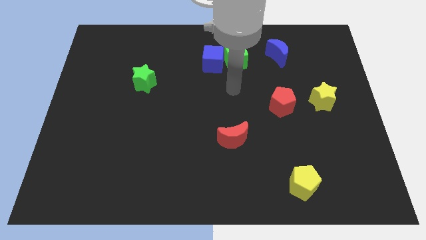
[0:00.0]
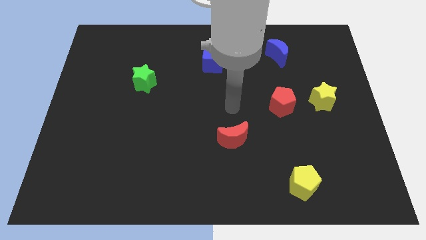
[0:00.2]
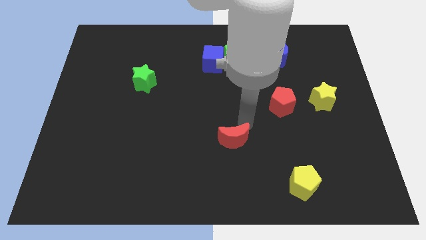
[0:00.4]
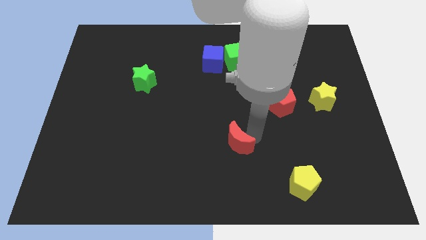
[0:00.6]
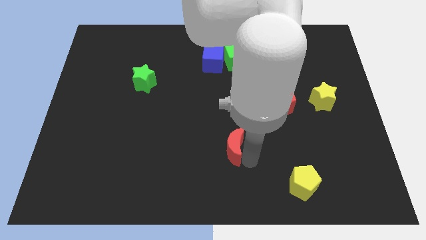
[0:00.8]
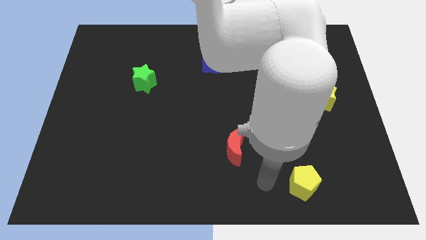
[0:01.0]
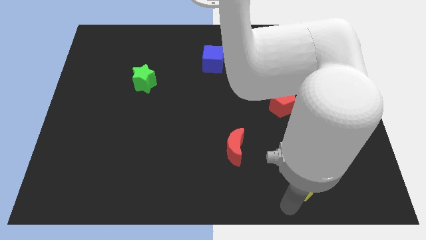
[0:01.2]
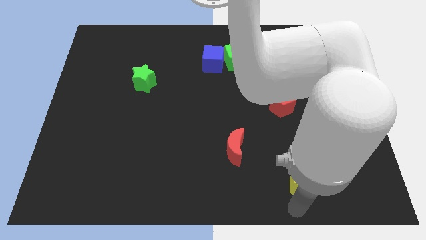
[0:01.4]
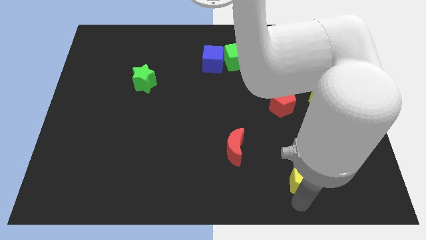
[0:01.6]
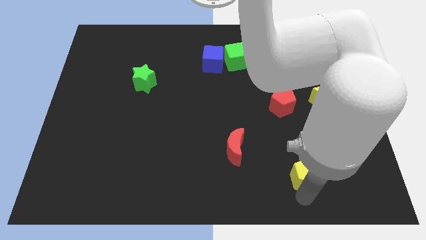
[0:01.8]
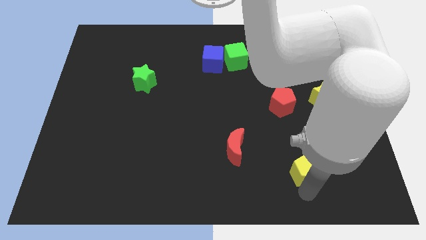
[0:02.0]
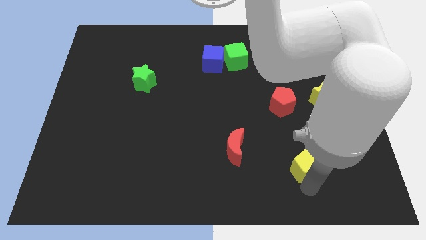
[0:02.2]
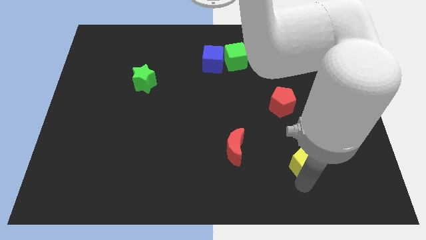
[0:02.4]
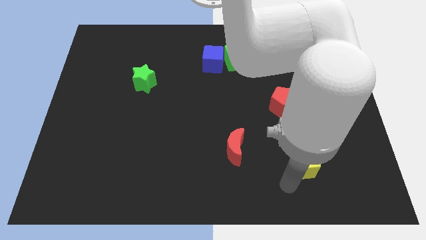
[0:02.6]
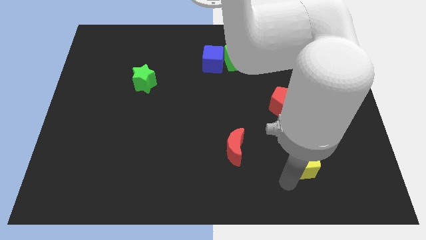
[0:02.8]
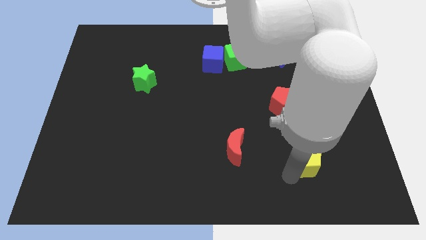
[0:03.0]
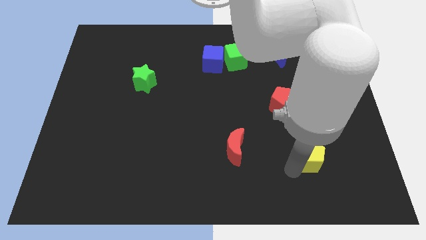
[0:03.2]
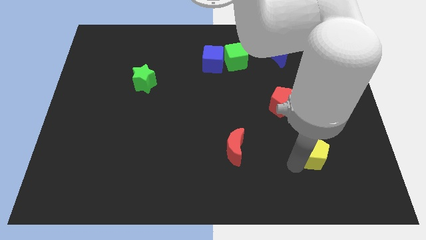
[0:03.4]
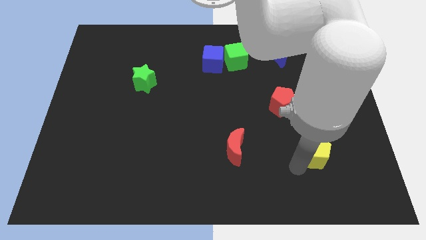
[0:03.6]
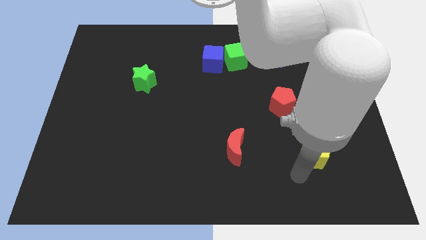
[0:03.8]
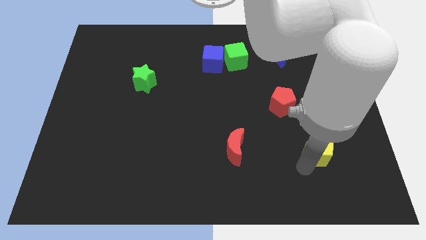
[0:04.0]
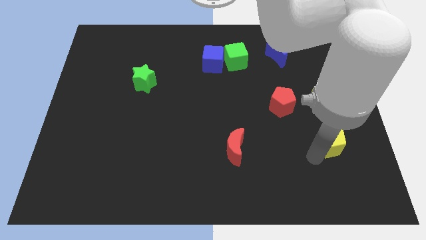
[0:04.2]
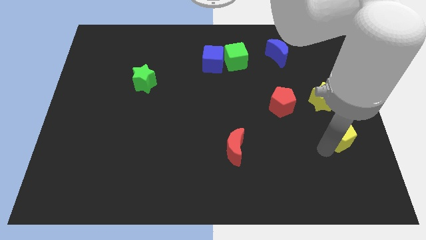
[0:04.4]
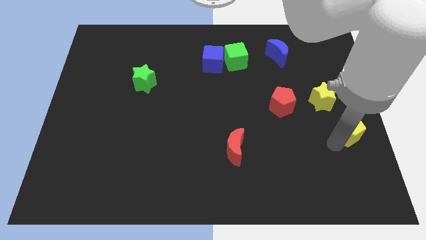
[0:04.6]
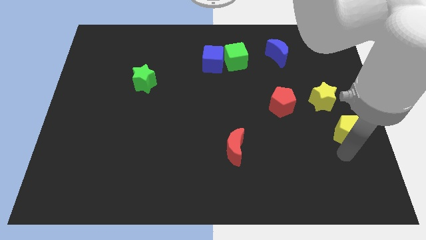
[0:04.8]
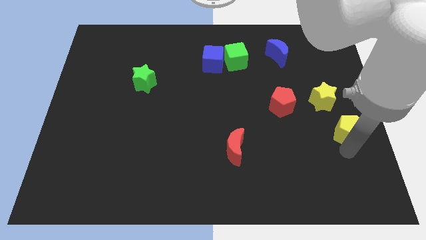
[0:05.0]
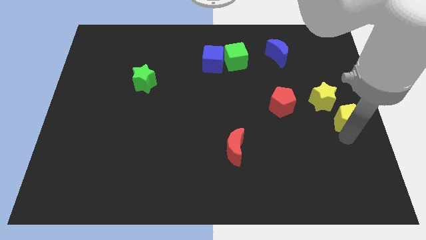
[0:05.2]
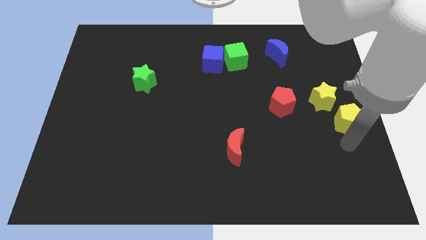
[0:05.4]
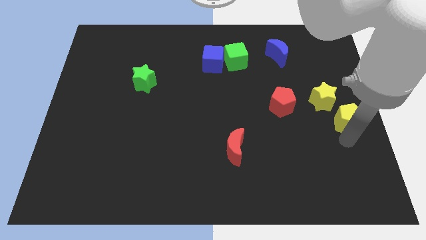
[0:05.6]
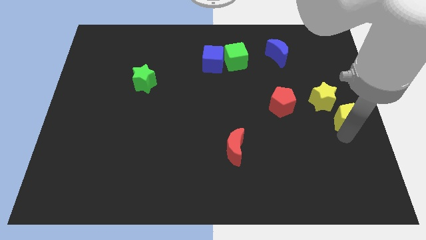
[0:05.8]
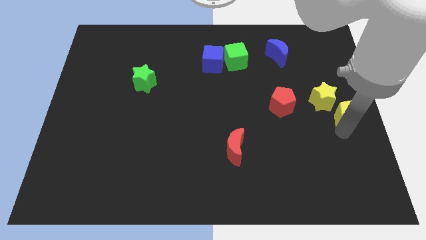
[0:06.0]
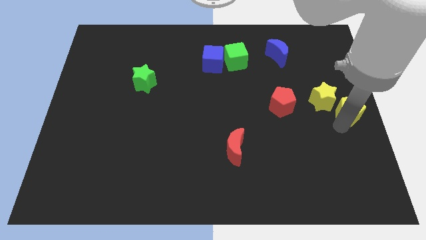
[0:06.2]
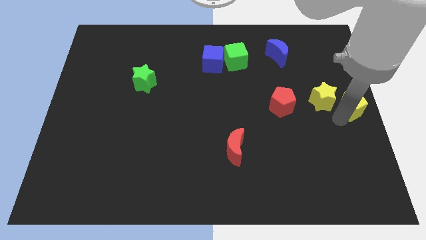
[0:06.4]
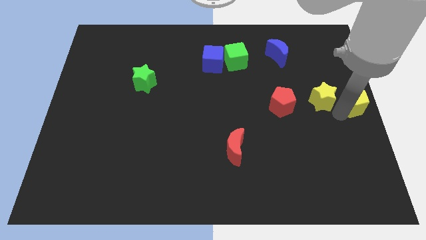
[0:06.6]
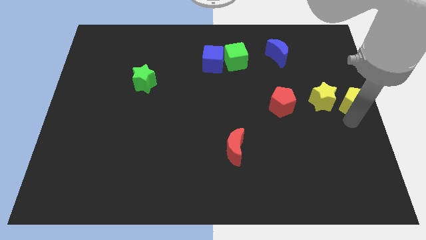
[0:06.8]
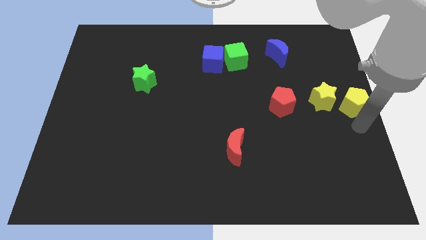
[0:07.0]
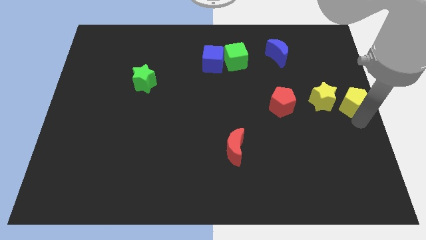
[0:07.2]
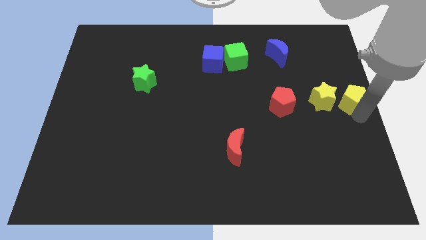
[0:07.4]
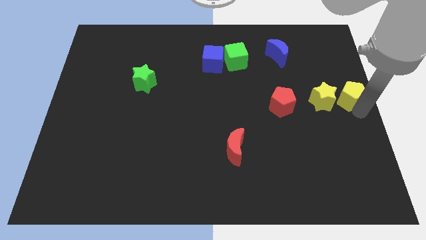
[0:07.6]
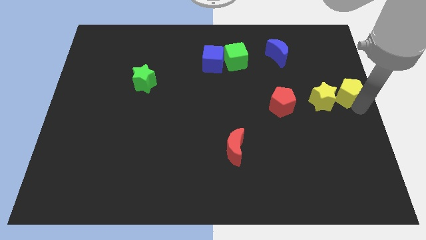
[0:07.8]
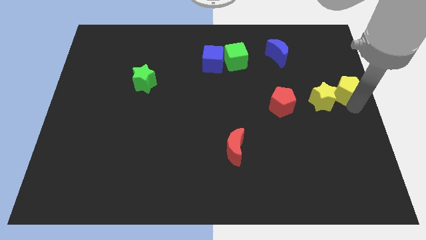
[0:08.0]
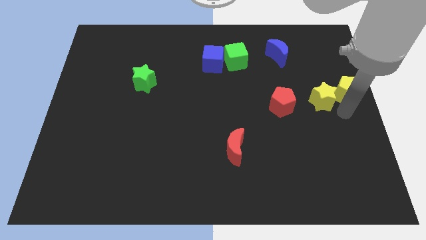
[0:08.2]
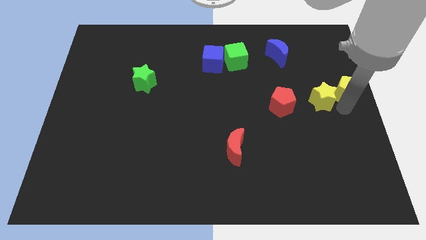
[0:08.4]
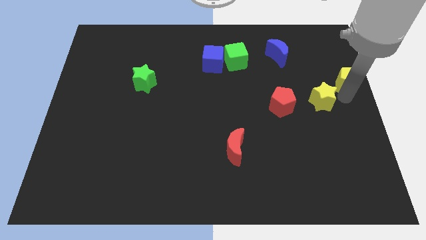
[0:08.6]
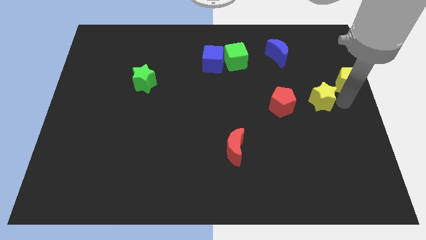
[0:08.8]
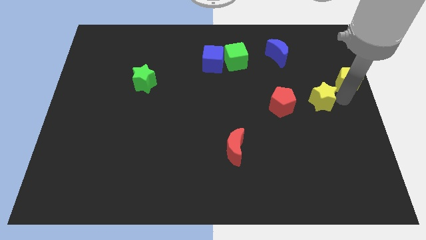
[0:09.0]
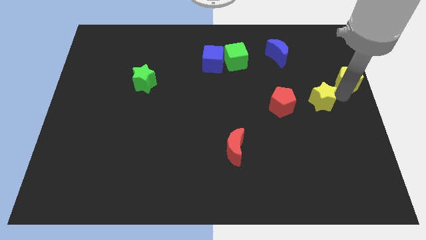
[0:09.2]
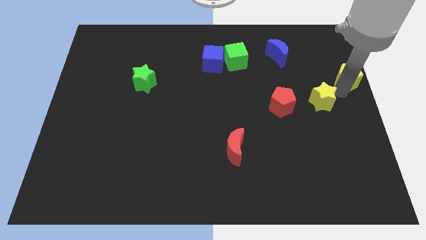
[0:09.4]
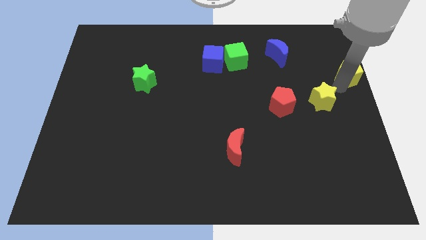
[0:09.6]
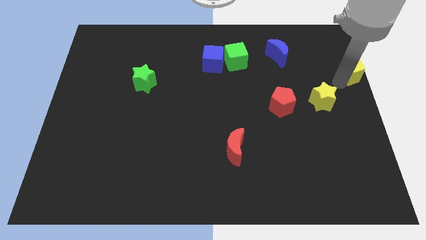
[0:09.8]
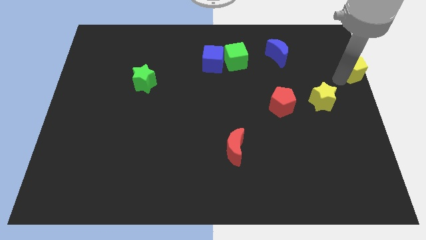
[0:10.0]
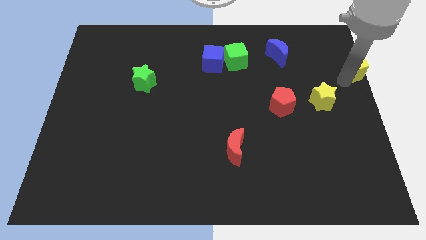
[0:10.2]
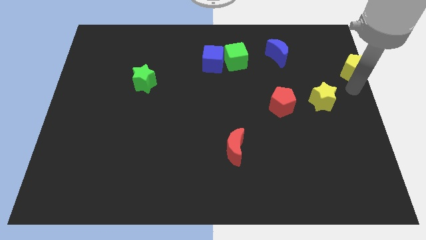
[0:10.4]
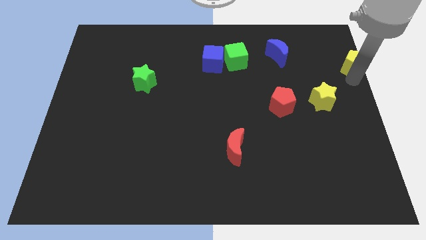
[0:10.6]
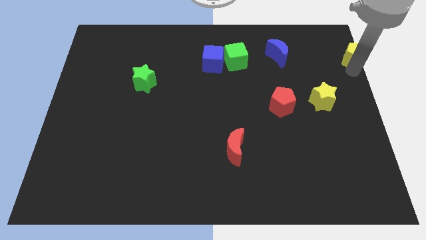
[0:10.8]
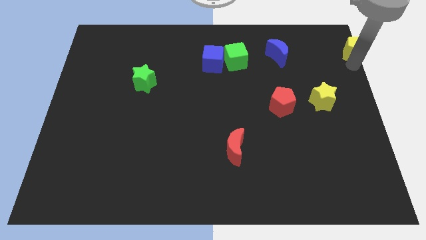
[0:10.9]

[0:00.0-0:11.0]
push the yellow pentagon to the upper right corner

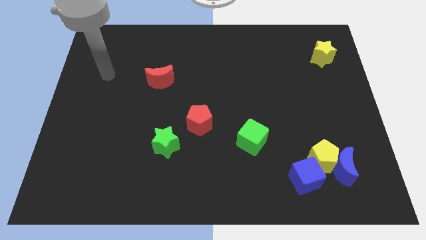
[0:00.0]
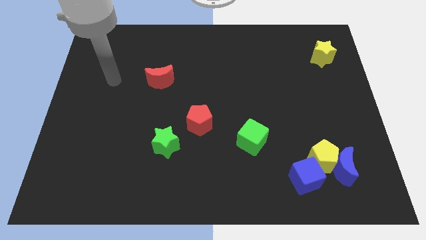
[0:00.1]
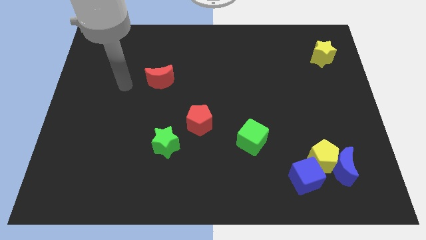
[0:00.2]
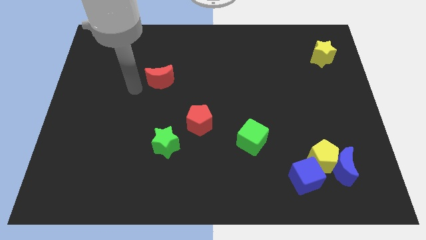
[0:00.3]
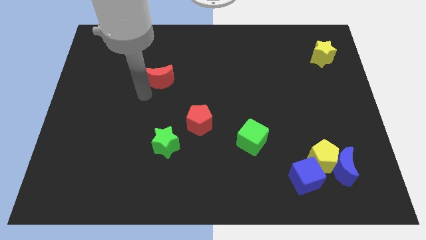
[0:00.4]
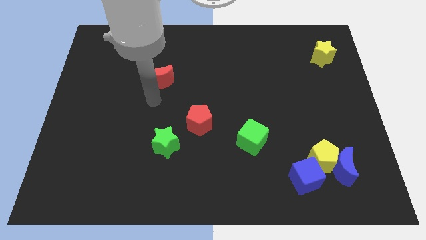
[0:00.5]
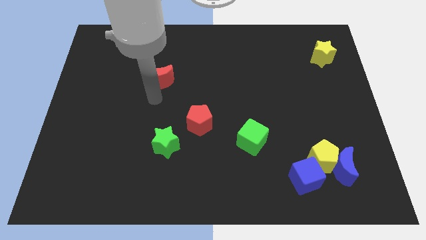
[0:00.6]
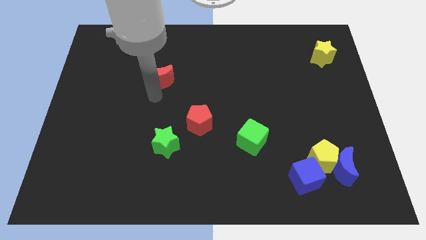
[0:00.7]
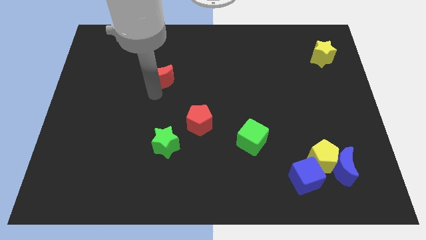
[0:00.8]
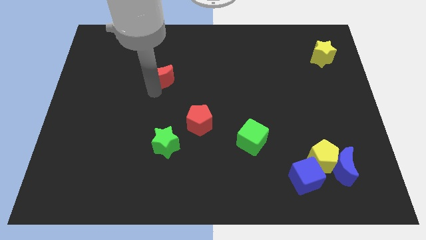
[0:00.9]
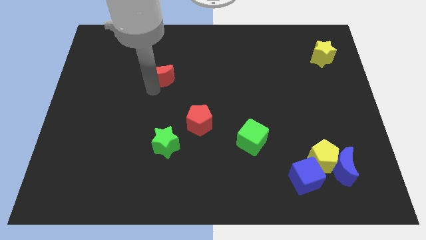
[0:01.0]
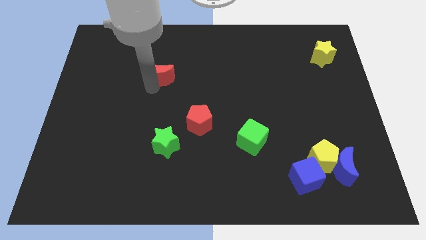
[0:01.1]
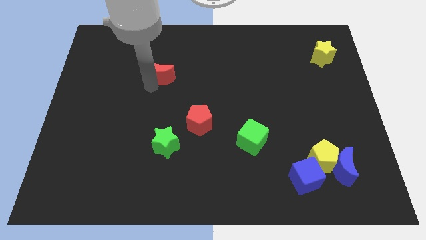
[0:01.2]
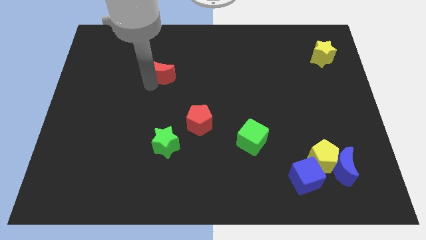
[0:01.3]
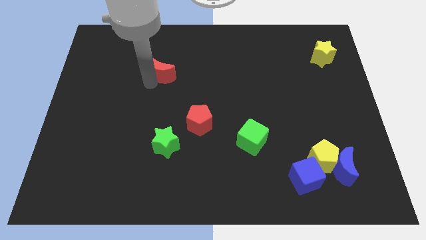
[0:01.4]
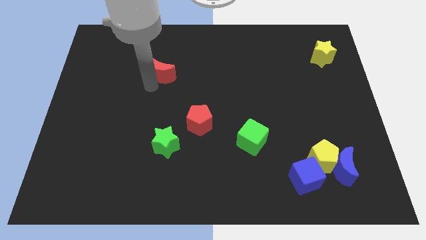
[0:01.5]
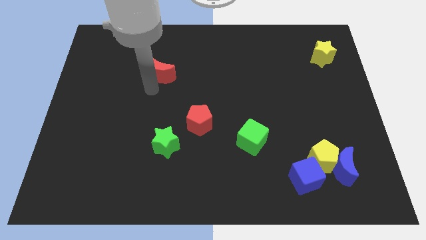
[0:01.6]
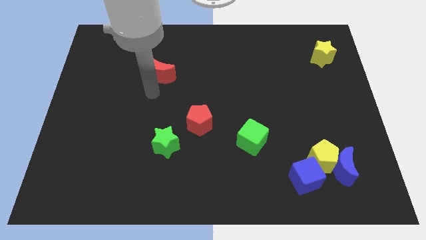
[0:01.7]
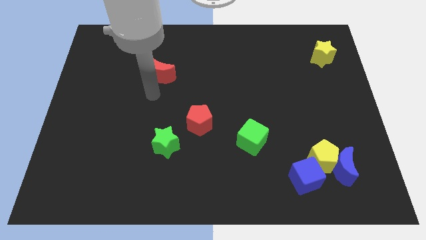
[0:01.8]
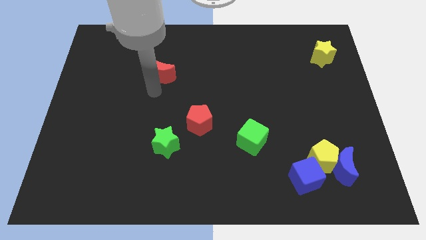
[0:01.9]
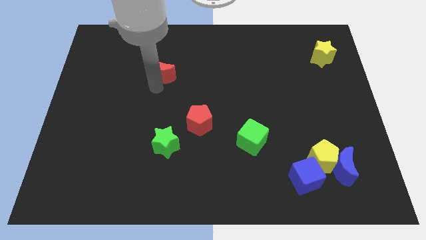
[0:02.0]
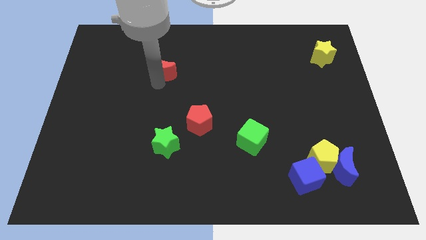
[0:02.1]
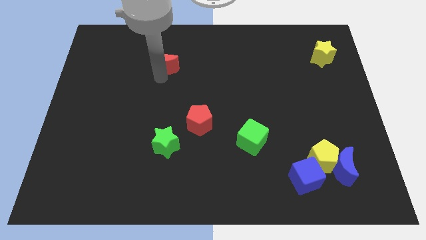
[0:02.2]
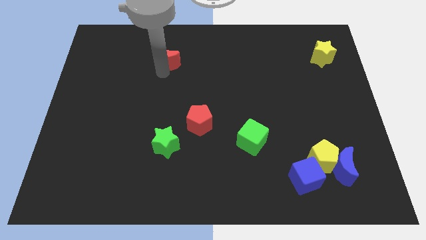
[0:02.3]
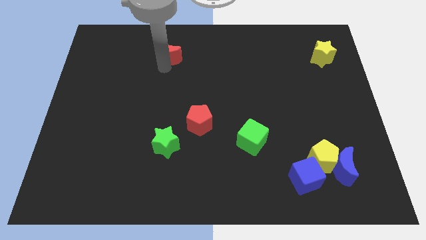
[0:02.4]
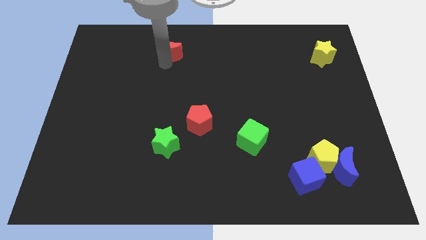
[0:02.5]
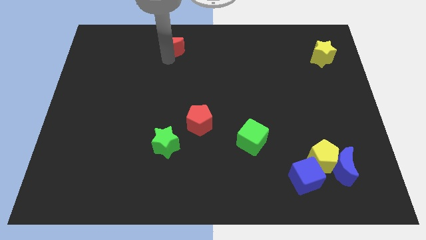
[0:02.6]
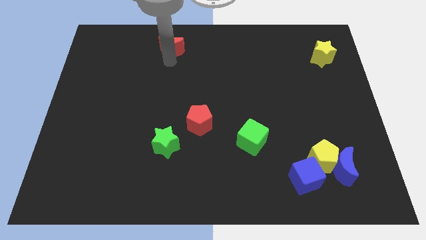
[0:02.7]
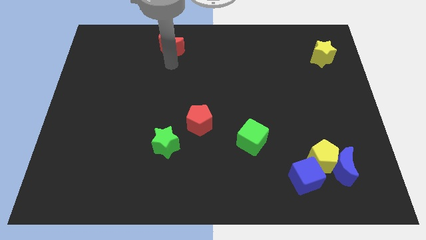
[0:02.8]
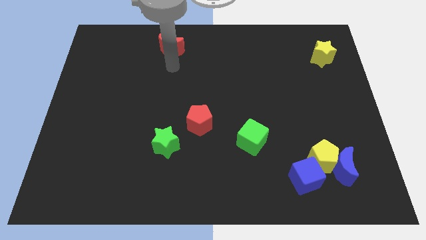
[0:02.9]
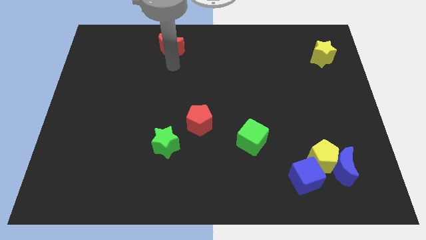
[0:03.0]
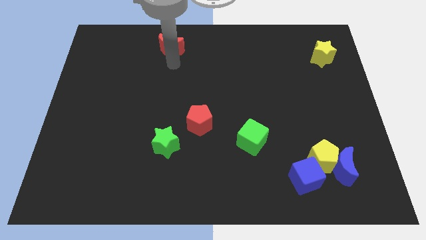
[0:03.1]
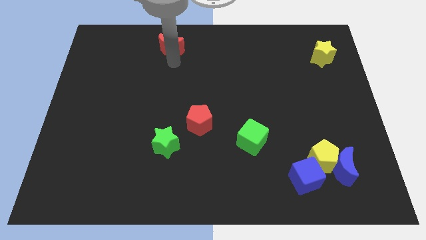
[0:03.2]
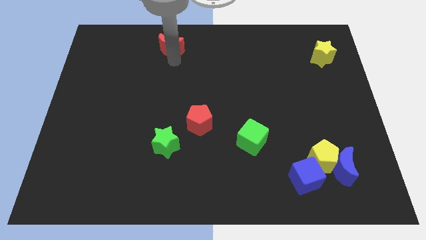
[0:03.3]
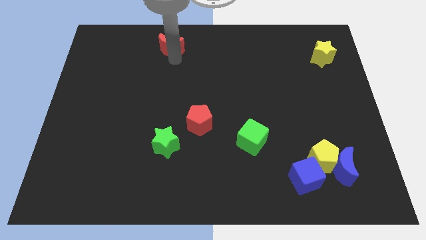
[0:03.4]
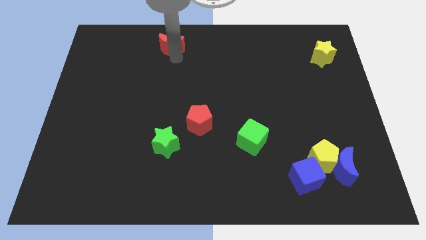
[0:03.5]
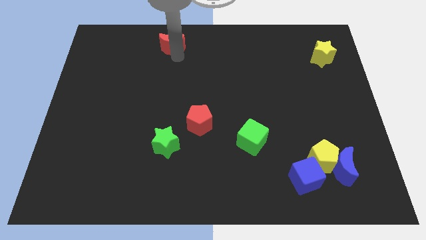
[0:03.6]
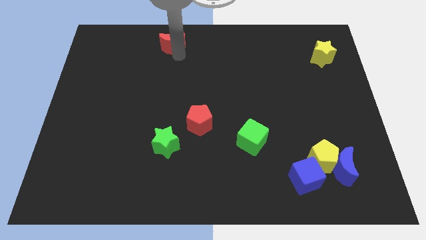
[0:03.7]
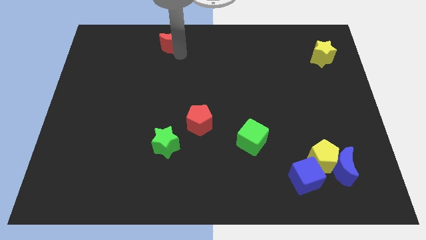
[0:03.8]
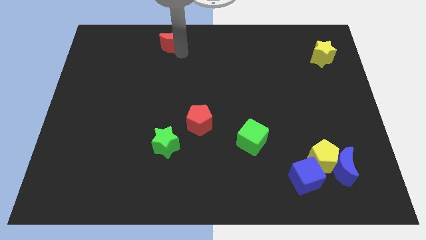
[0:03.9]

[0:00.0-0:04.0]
push the red moon to the towards your base
